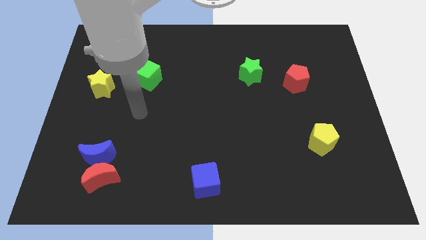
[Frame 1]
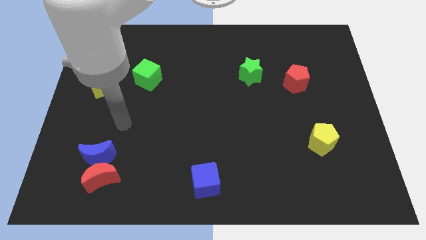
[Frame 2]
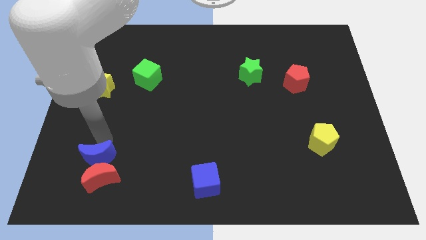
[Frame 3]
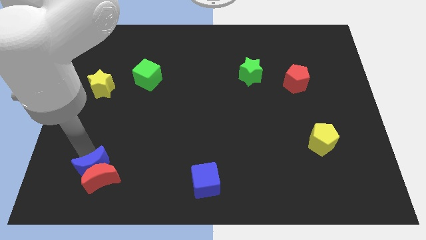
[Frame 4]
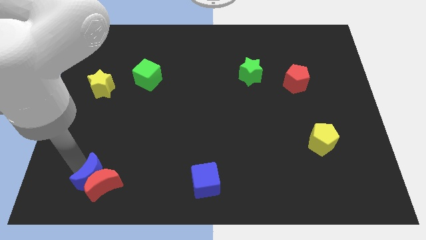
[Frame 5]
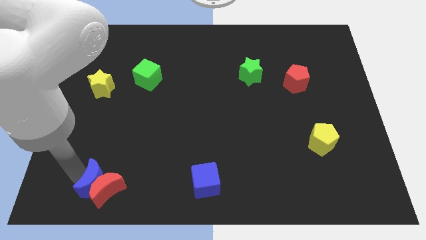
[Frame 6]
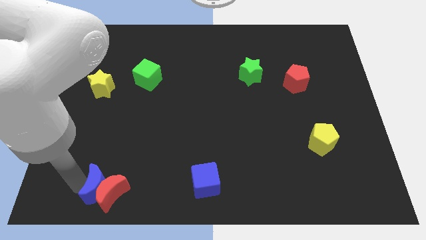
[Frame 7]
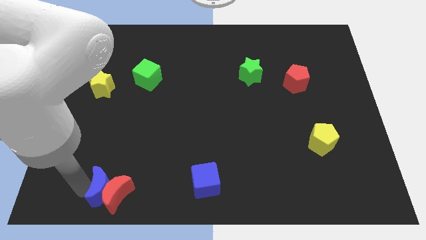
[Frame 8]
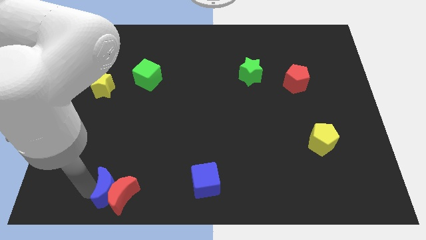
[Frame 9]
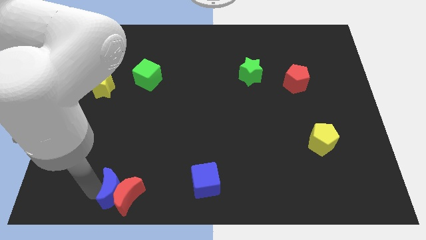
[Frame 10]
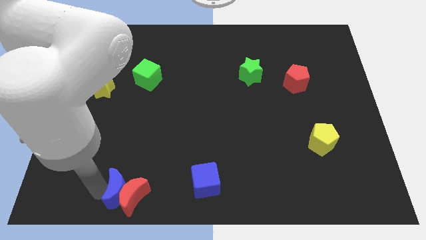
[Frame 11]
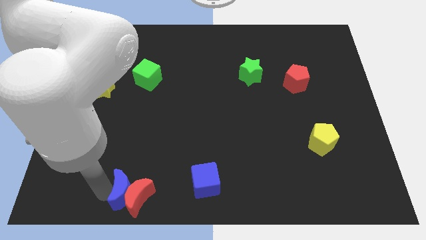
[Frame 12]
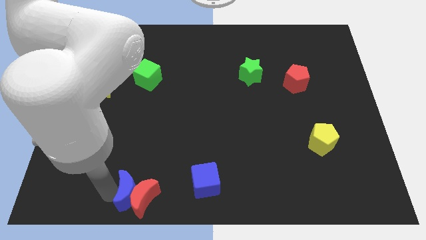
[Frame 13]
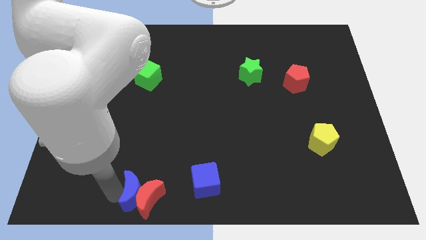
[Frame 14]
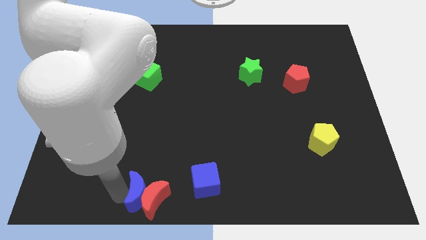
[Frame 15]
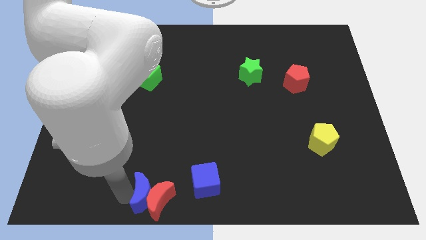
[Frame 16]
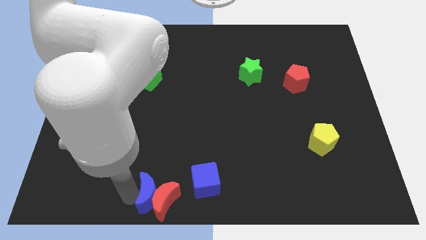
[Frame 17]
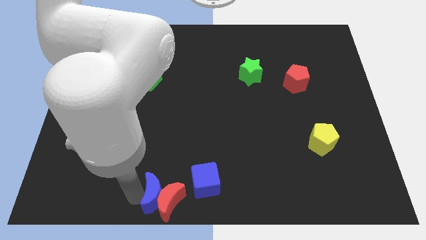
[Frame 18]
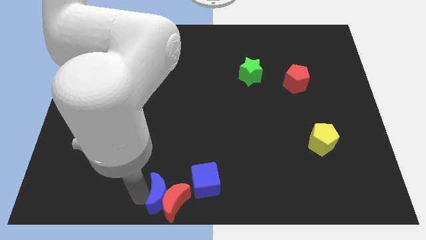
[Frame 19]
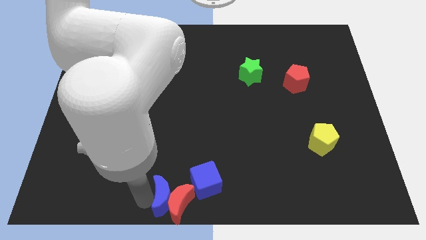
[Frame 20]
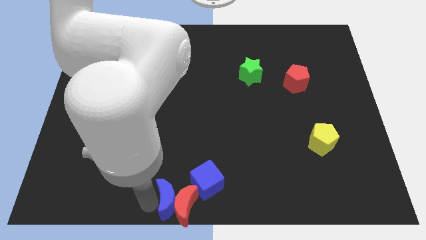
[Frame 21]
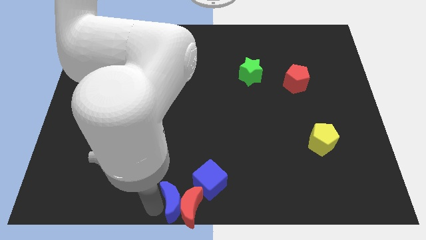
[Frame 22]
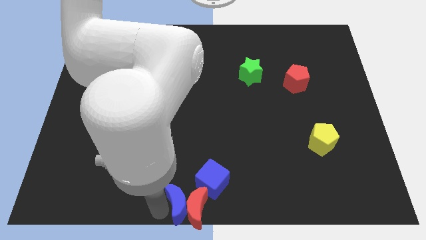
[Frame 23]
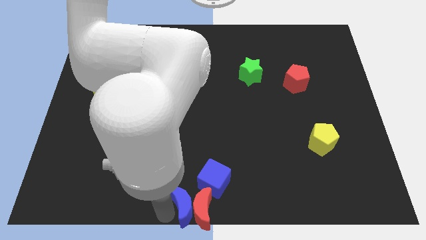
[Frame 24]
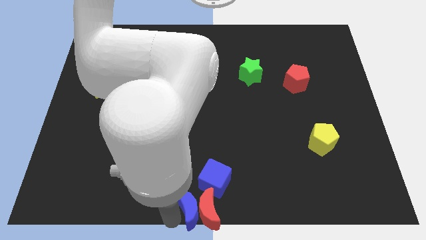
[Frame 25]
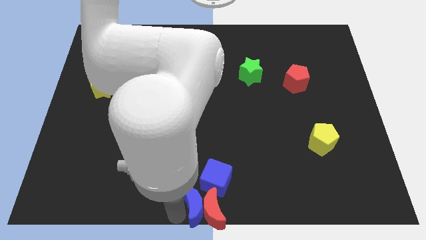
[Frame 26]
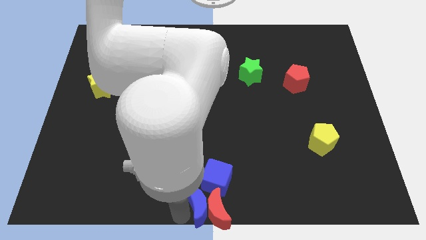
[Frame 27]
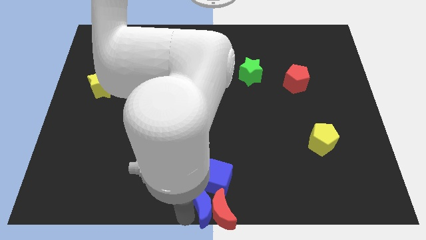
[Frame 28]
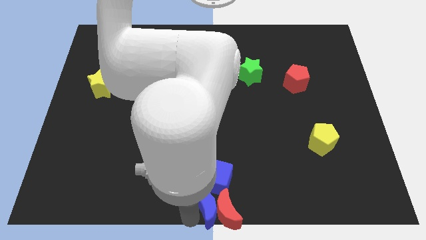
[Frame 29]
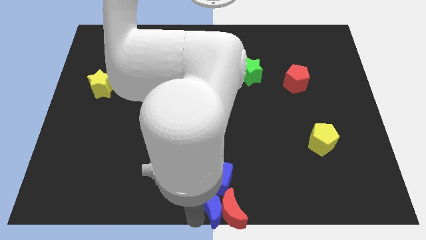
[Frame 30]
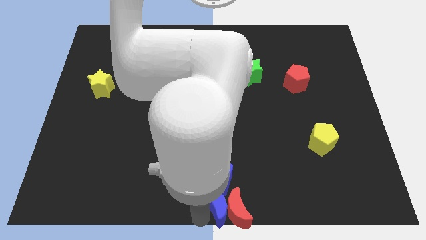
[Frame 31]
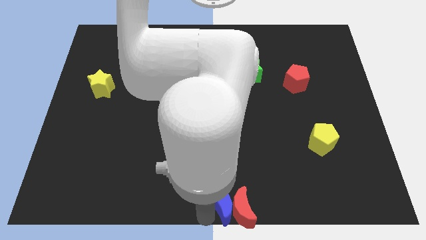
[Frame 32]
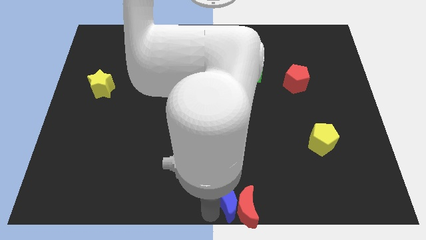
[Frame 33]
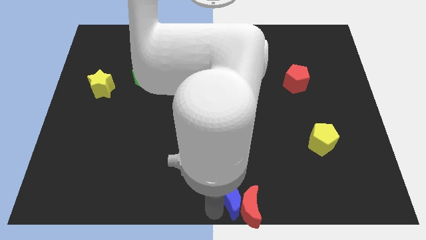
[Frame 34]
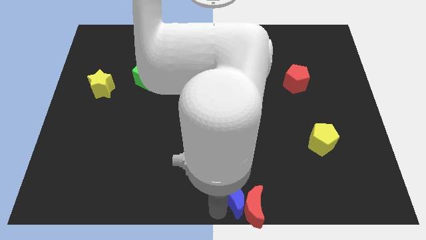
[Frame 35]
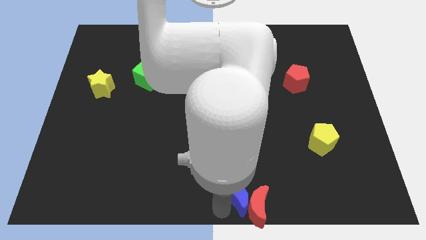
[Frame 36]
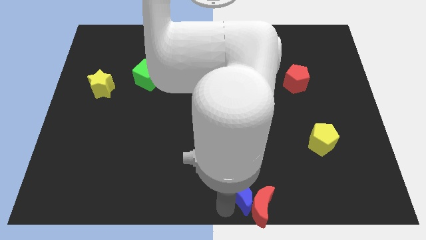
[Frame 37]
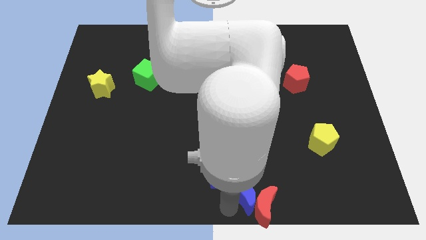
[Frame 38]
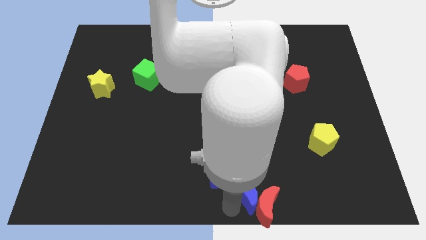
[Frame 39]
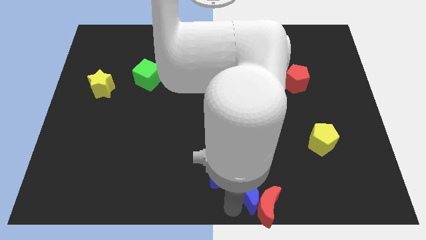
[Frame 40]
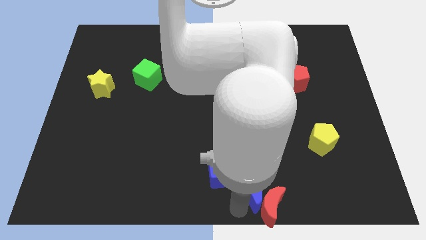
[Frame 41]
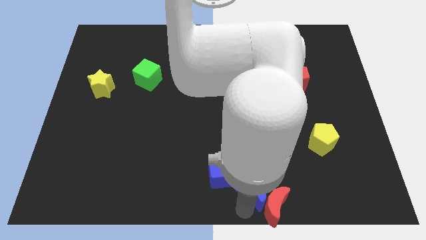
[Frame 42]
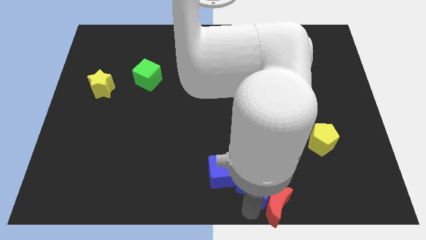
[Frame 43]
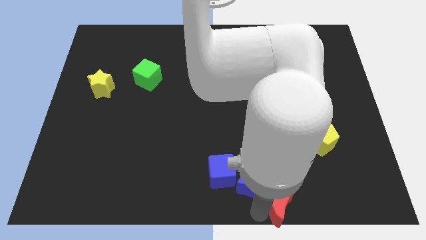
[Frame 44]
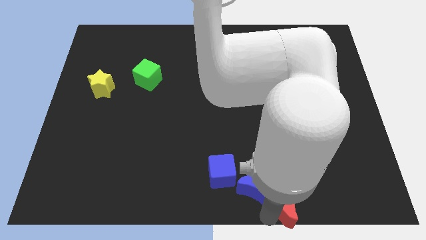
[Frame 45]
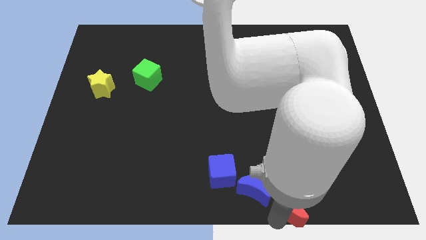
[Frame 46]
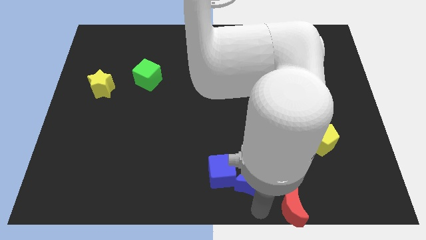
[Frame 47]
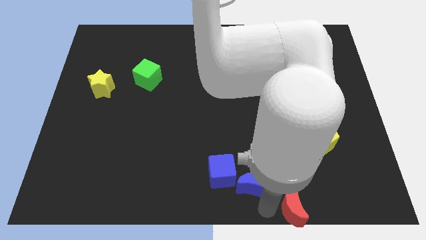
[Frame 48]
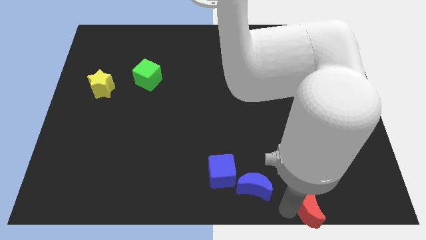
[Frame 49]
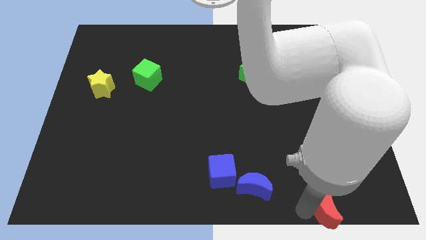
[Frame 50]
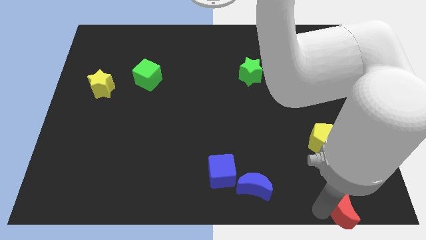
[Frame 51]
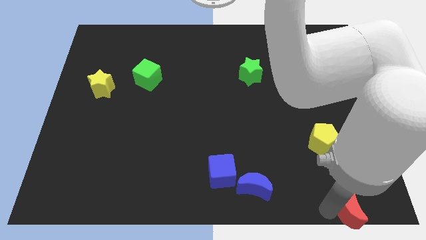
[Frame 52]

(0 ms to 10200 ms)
move the red moon to the bottom right

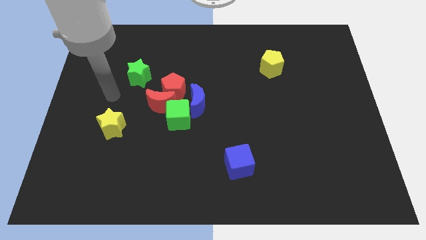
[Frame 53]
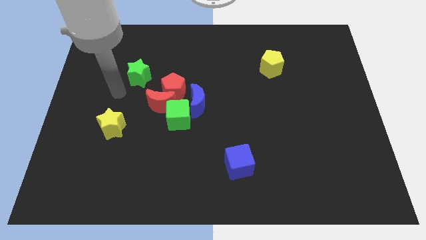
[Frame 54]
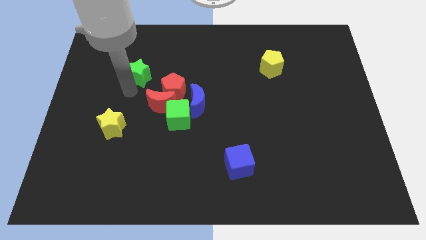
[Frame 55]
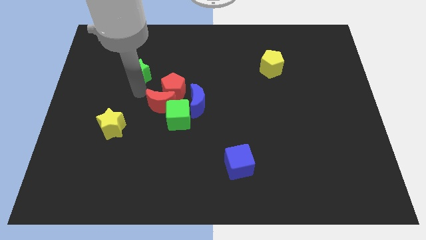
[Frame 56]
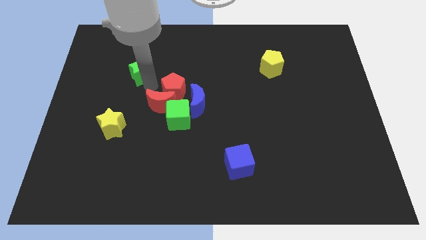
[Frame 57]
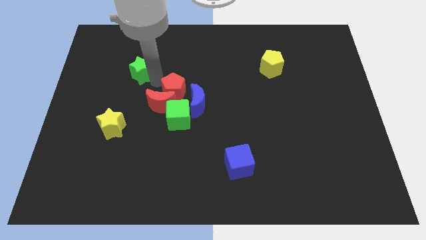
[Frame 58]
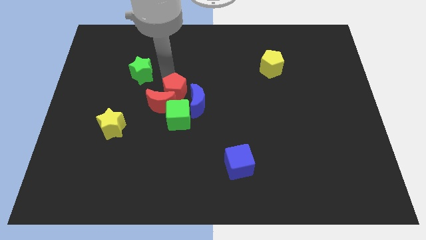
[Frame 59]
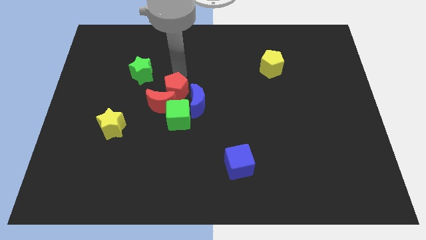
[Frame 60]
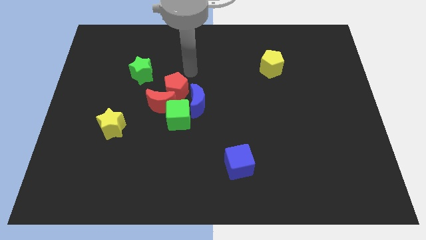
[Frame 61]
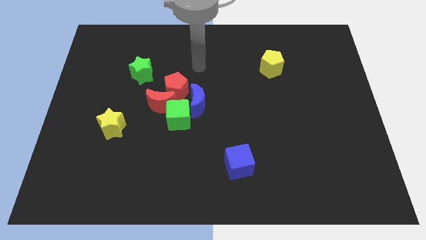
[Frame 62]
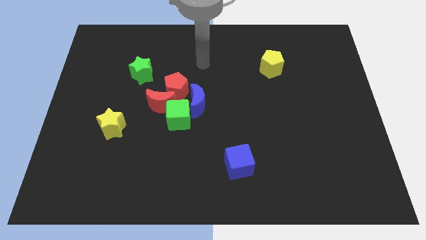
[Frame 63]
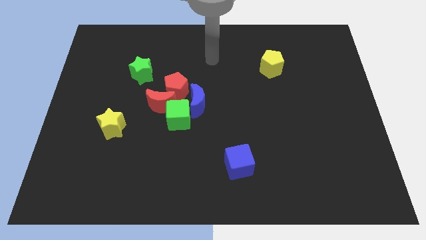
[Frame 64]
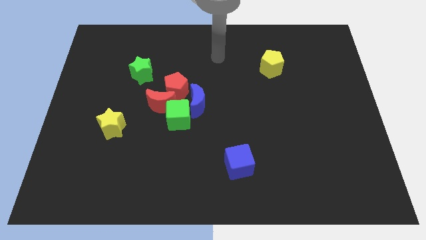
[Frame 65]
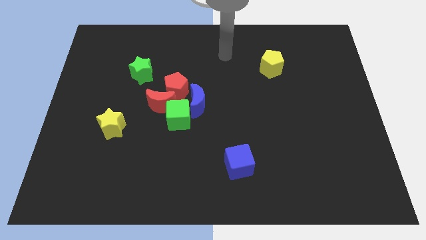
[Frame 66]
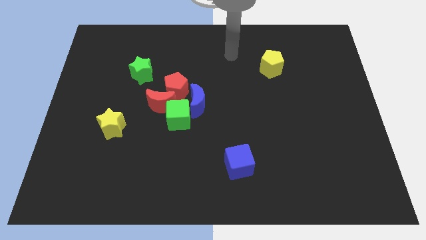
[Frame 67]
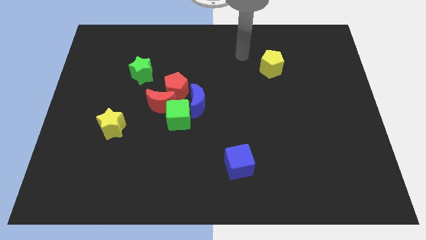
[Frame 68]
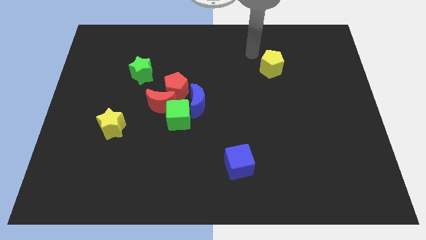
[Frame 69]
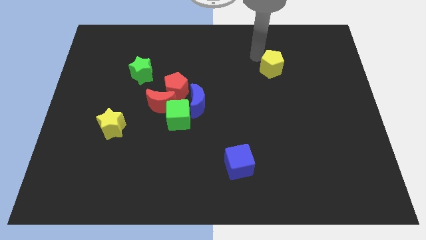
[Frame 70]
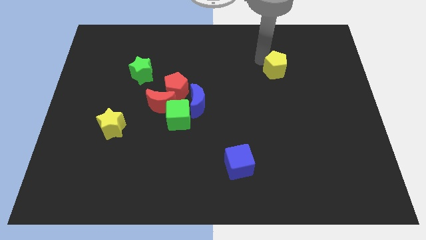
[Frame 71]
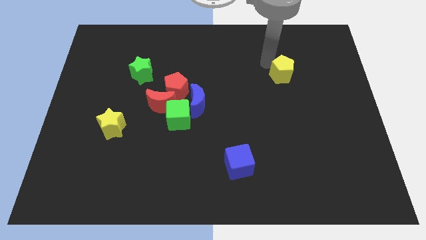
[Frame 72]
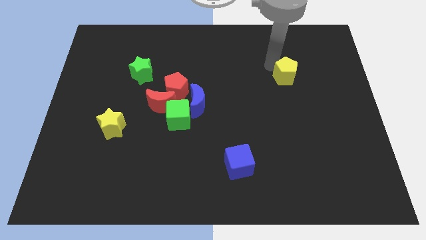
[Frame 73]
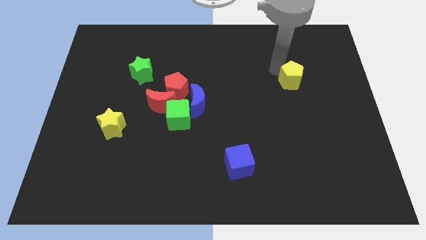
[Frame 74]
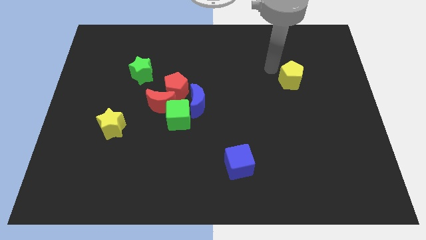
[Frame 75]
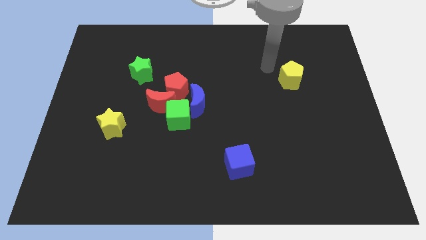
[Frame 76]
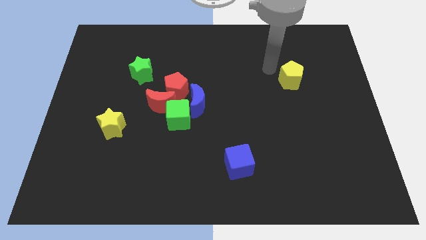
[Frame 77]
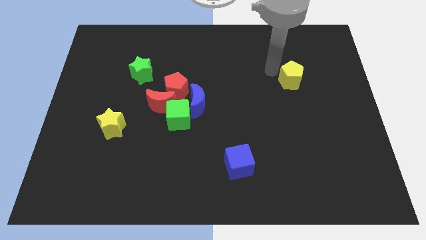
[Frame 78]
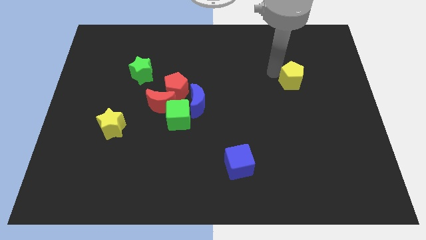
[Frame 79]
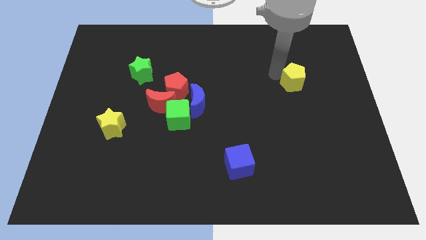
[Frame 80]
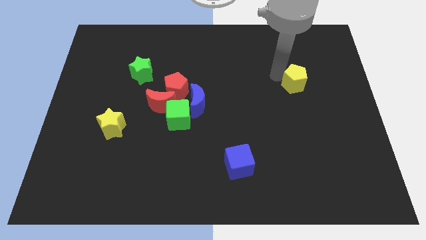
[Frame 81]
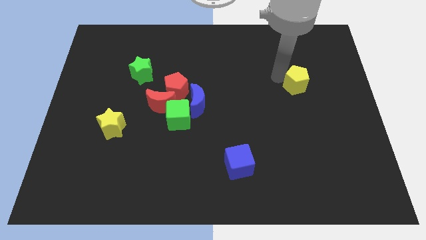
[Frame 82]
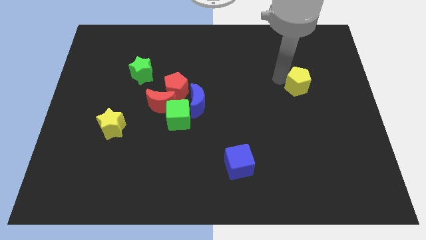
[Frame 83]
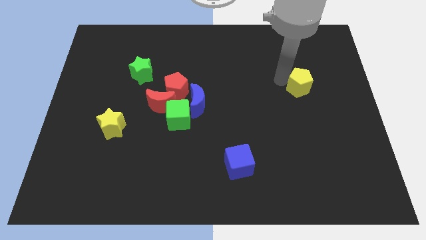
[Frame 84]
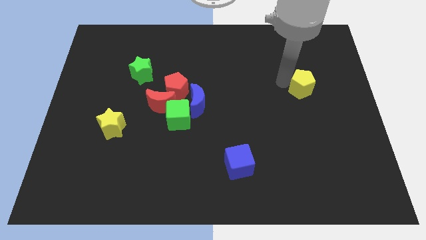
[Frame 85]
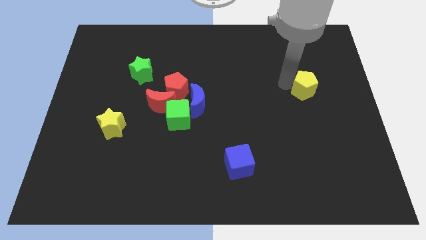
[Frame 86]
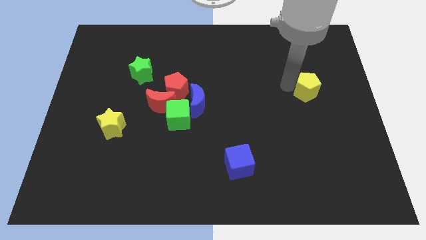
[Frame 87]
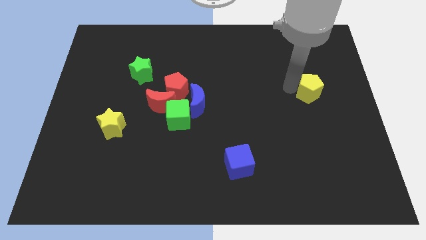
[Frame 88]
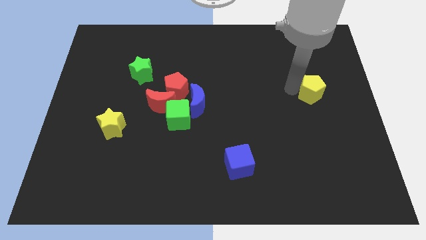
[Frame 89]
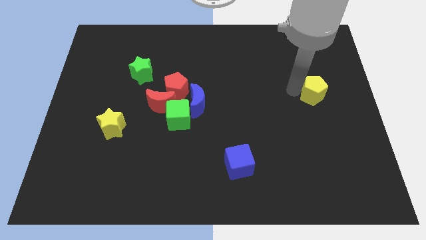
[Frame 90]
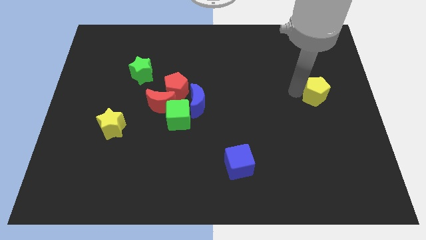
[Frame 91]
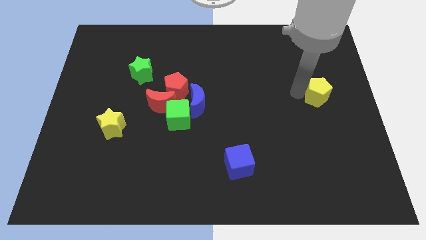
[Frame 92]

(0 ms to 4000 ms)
push the yellow pentagon to the center right
